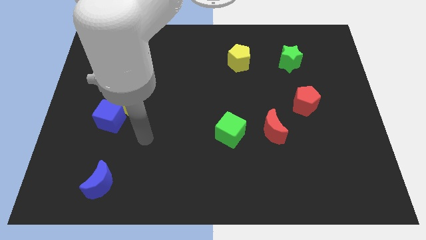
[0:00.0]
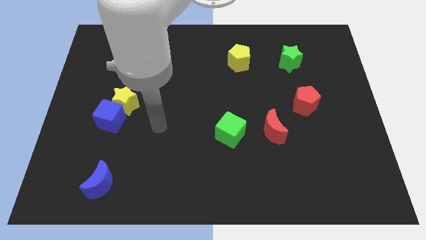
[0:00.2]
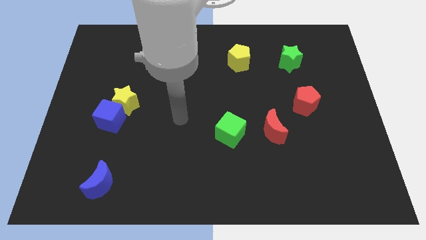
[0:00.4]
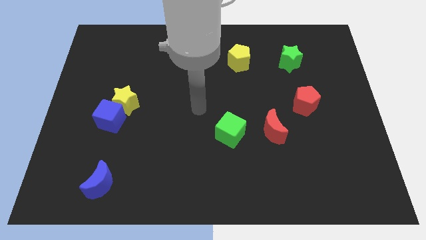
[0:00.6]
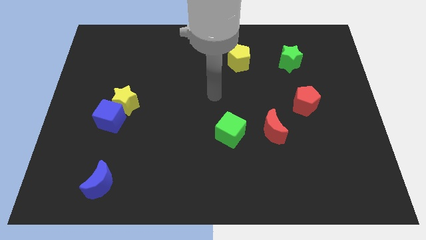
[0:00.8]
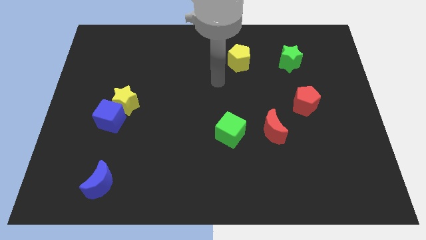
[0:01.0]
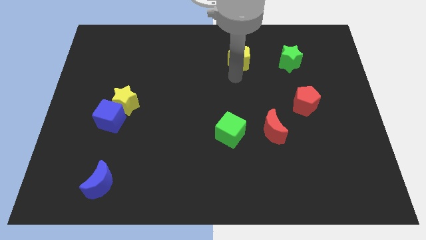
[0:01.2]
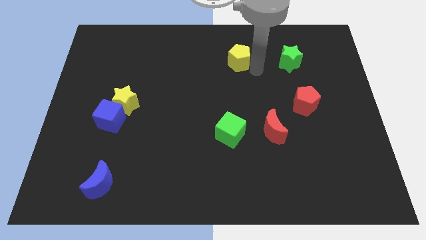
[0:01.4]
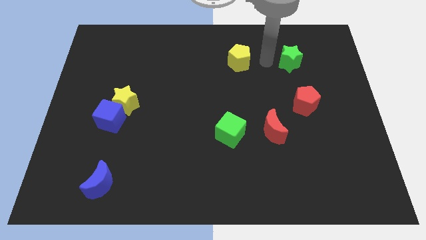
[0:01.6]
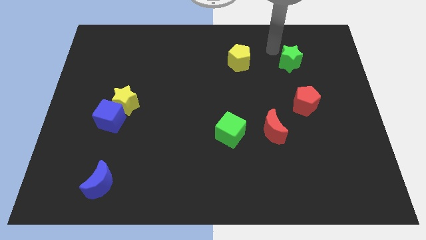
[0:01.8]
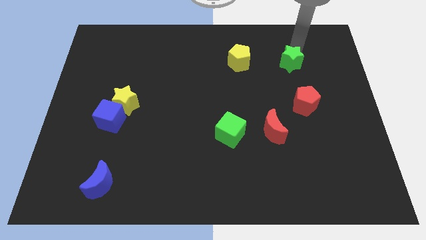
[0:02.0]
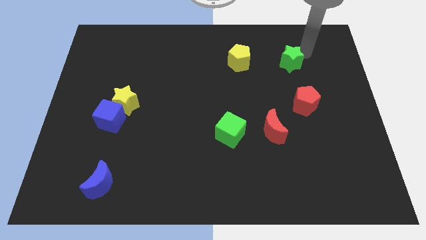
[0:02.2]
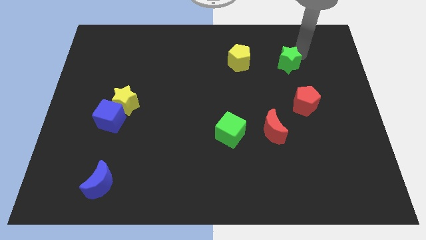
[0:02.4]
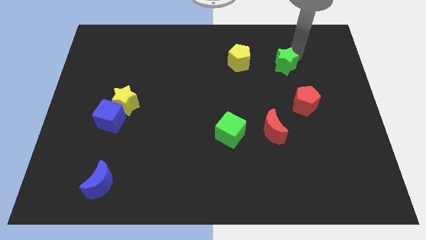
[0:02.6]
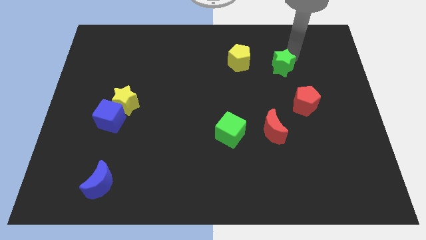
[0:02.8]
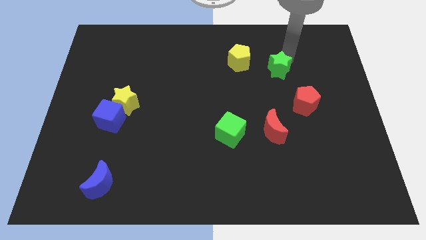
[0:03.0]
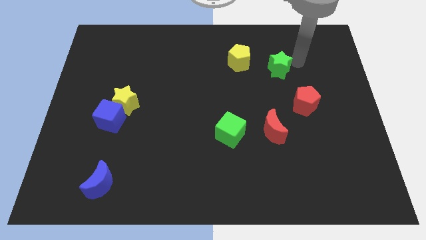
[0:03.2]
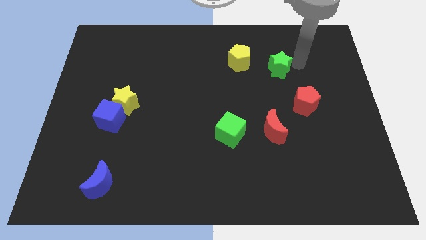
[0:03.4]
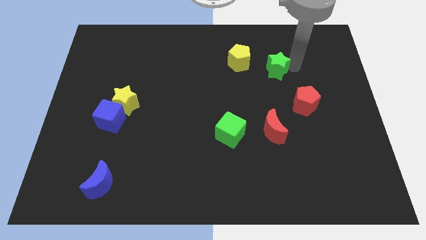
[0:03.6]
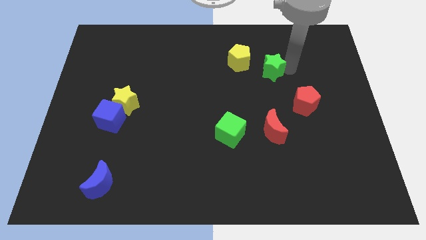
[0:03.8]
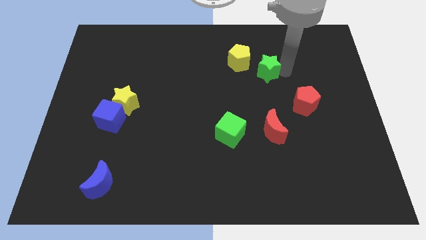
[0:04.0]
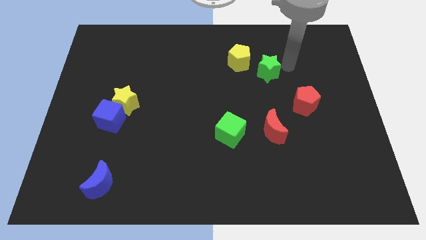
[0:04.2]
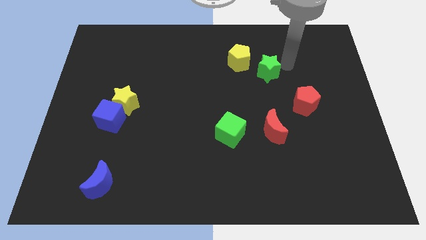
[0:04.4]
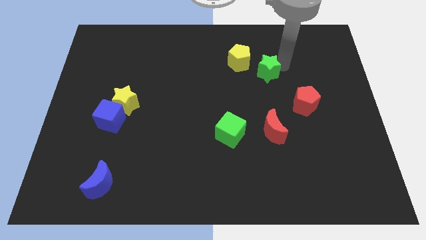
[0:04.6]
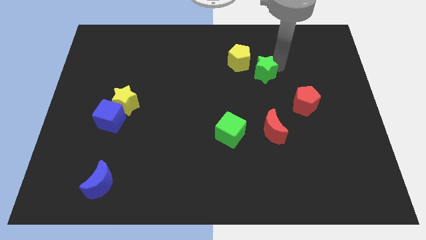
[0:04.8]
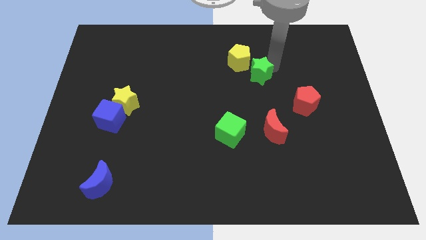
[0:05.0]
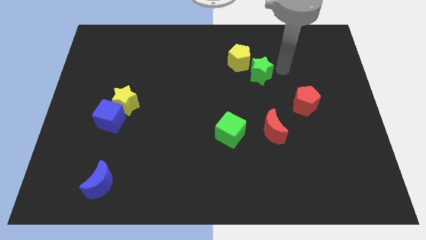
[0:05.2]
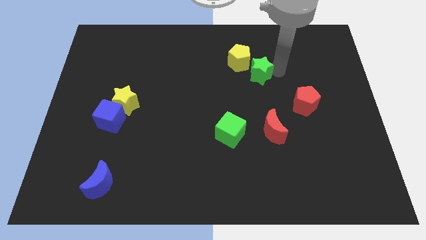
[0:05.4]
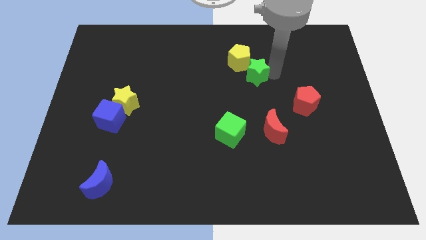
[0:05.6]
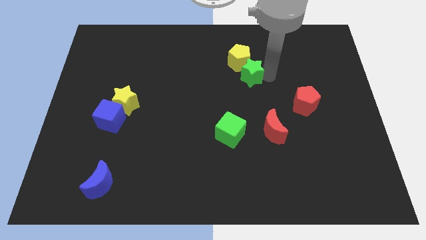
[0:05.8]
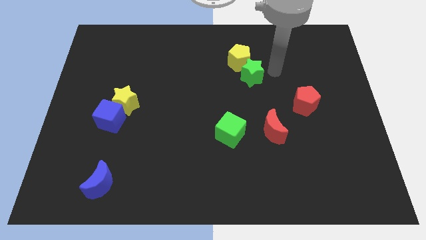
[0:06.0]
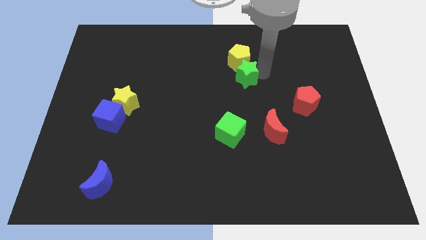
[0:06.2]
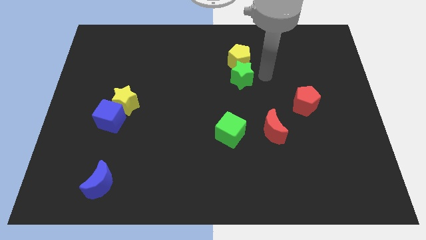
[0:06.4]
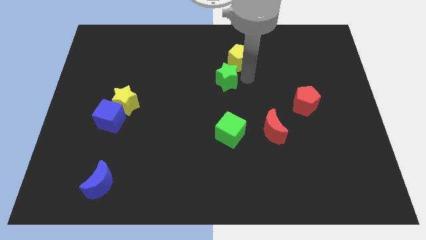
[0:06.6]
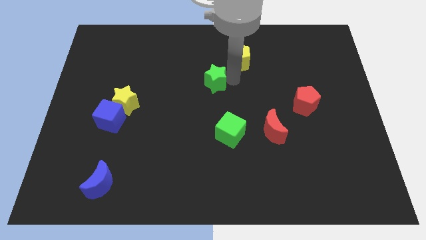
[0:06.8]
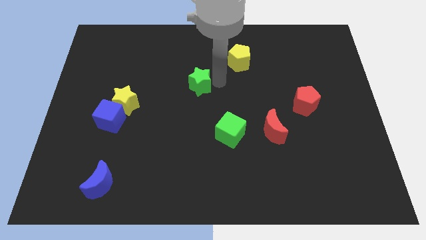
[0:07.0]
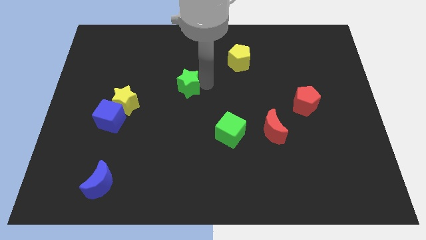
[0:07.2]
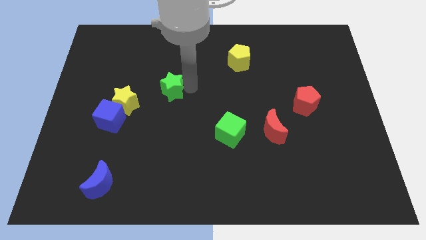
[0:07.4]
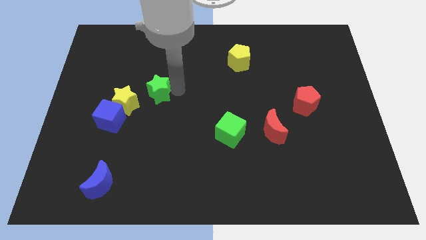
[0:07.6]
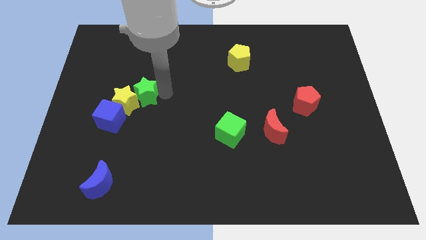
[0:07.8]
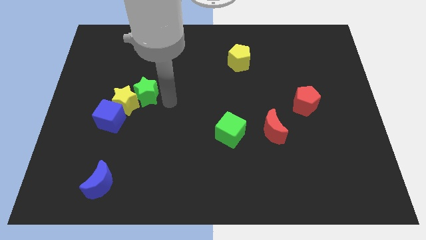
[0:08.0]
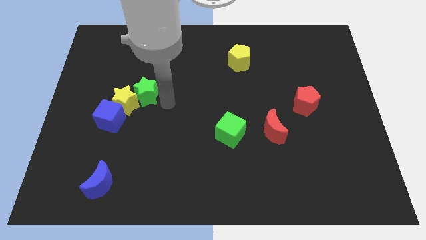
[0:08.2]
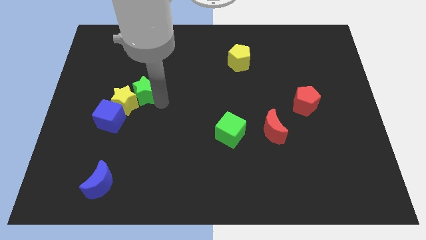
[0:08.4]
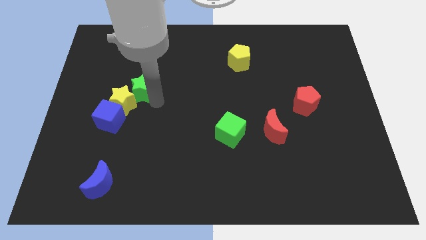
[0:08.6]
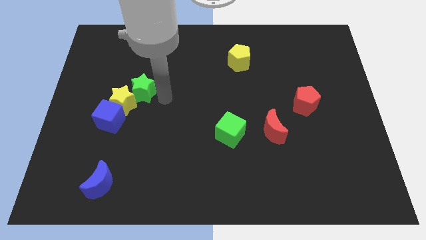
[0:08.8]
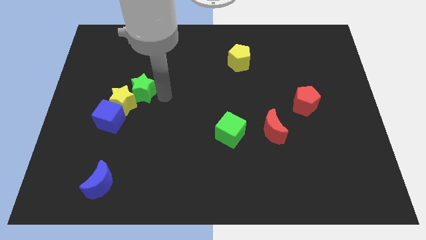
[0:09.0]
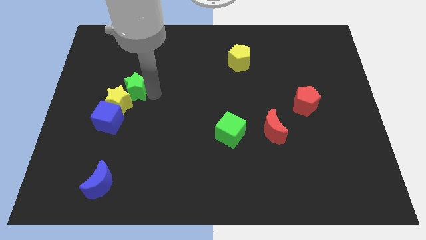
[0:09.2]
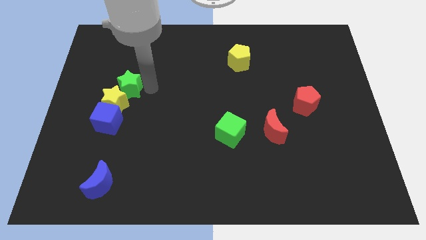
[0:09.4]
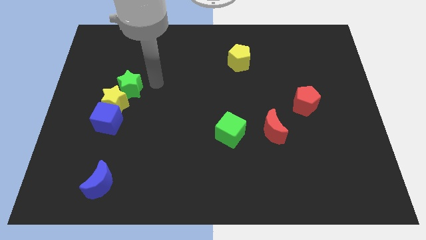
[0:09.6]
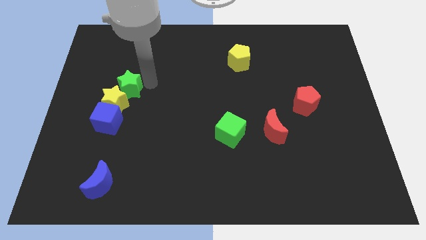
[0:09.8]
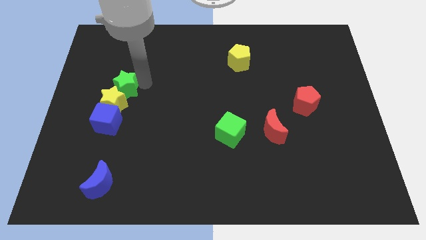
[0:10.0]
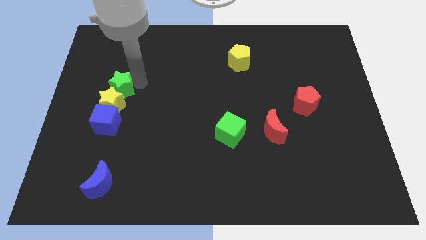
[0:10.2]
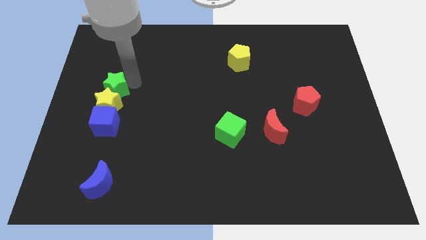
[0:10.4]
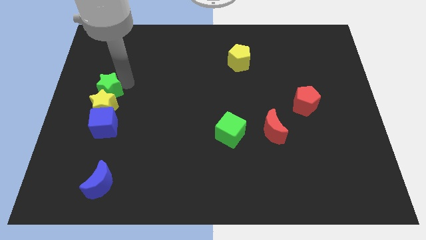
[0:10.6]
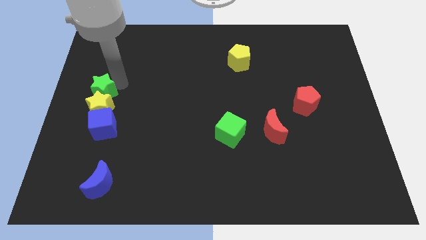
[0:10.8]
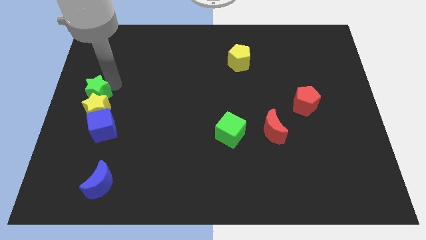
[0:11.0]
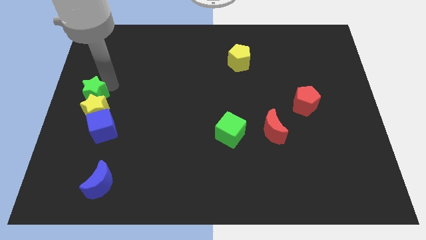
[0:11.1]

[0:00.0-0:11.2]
put the green star diagonally up and to the left of the blue cube
